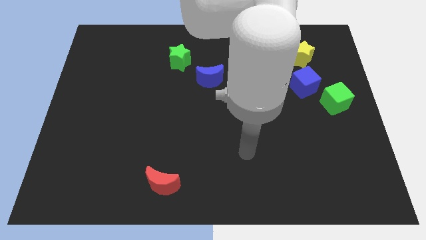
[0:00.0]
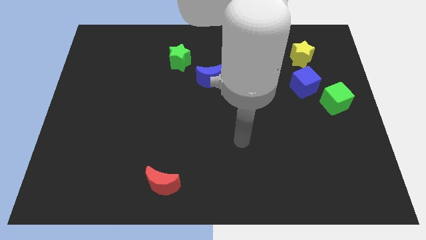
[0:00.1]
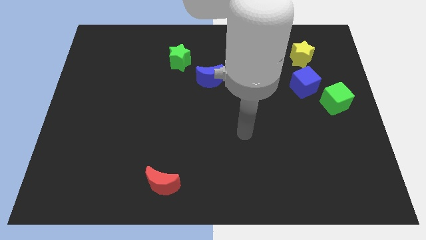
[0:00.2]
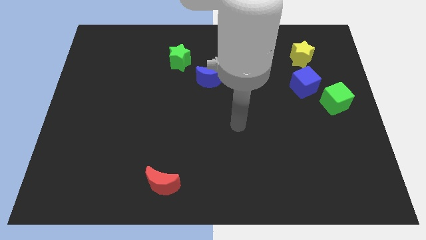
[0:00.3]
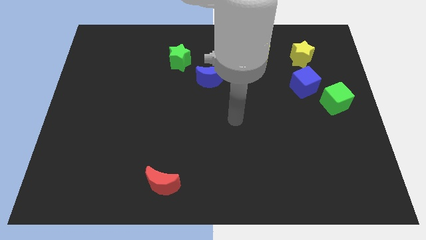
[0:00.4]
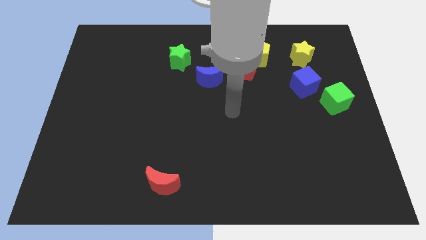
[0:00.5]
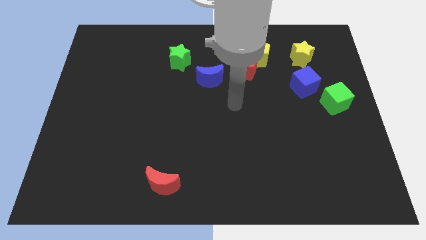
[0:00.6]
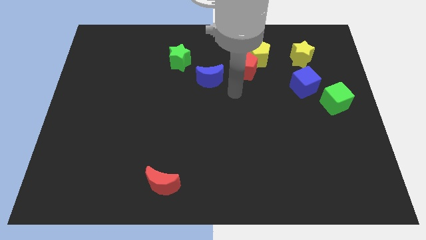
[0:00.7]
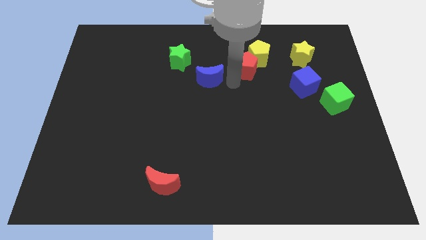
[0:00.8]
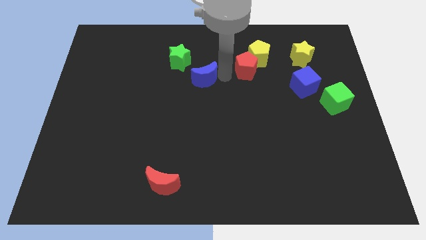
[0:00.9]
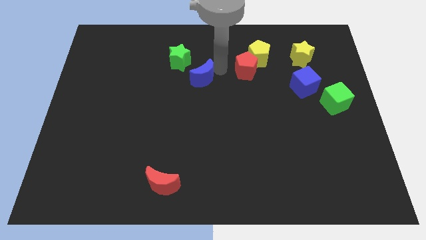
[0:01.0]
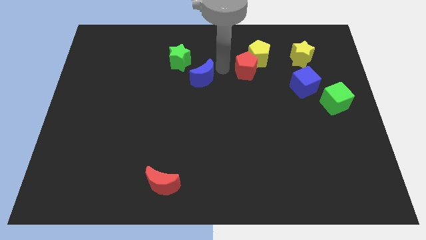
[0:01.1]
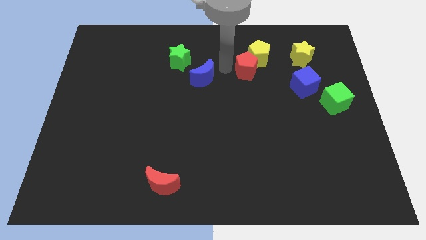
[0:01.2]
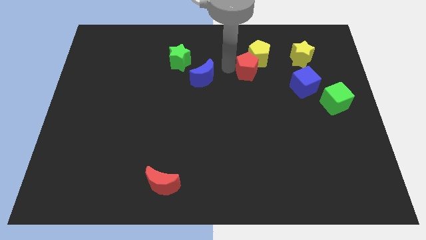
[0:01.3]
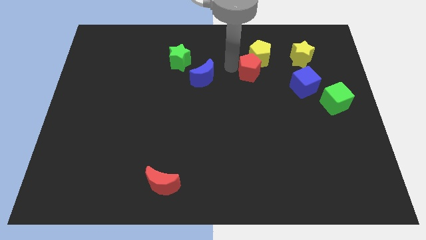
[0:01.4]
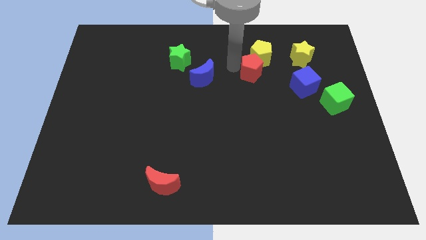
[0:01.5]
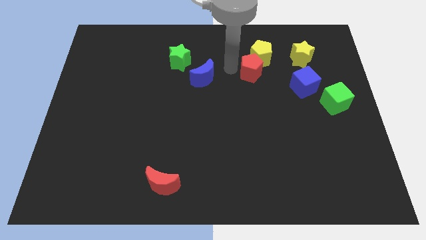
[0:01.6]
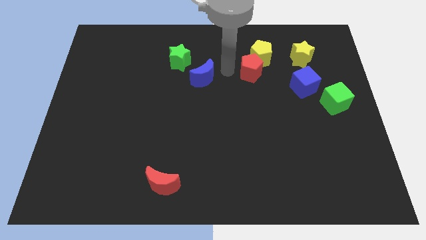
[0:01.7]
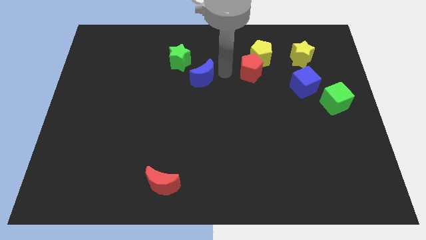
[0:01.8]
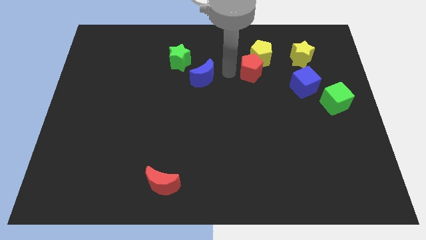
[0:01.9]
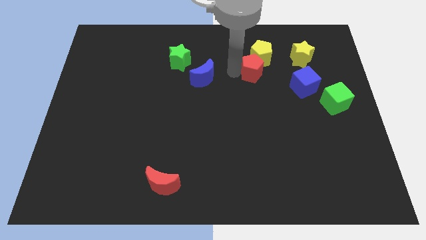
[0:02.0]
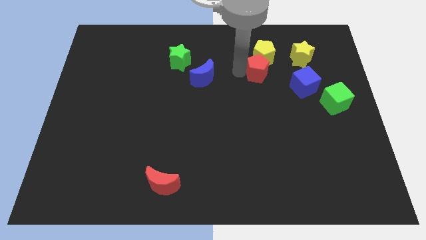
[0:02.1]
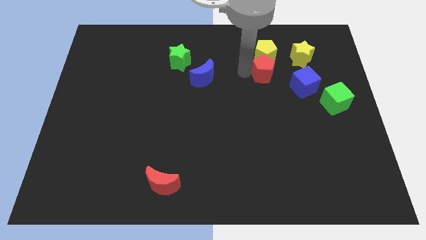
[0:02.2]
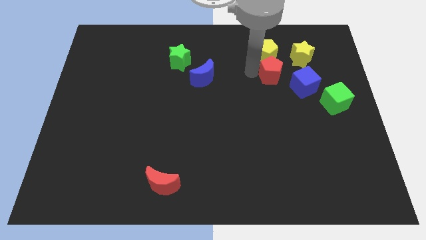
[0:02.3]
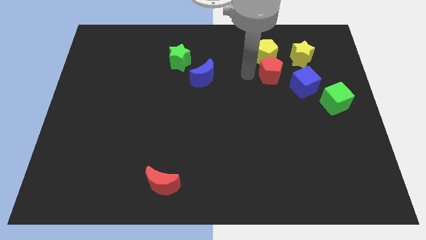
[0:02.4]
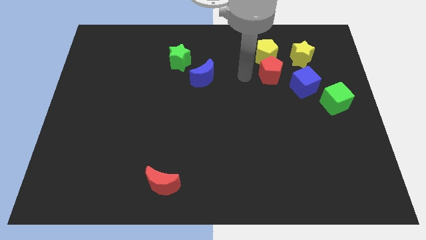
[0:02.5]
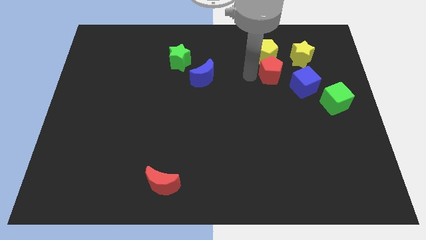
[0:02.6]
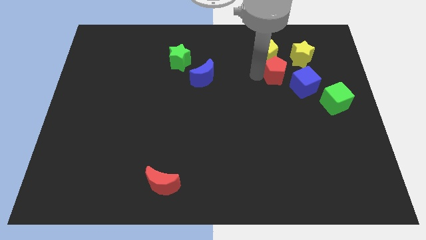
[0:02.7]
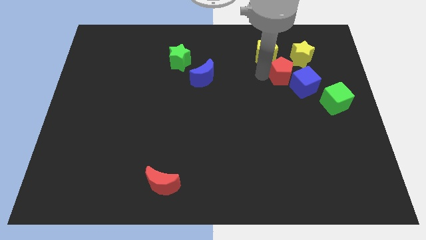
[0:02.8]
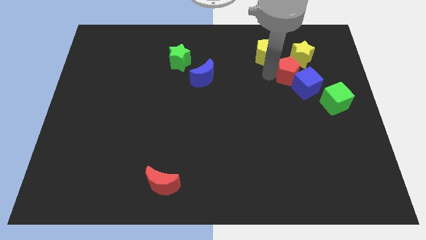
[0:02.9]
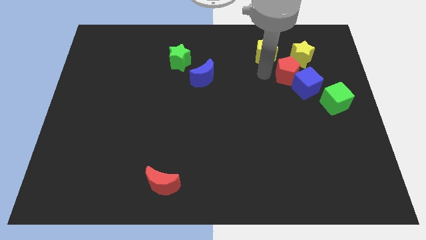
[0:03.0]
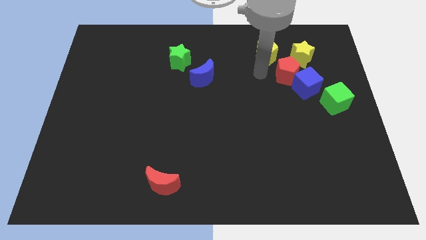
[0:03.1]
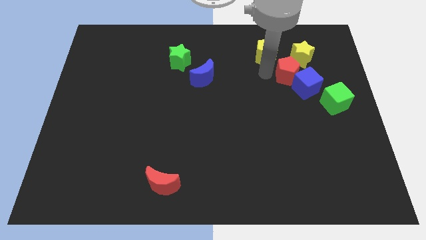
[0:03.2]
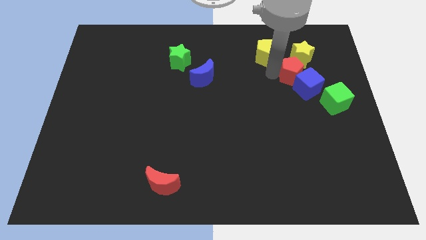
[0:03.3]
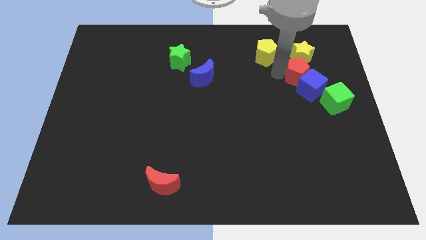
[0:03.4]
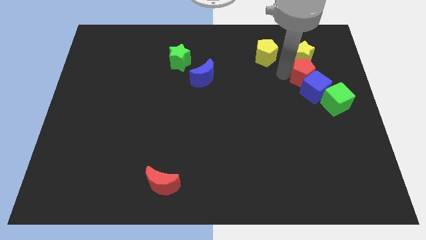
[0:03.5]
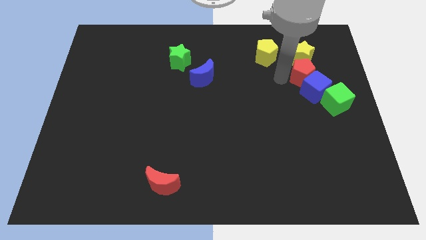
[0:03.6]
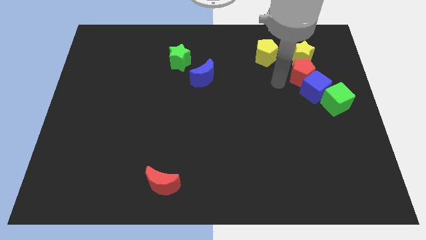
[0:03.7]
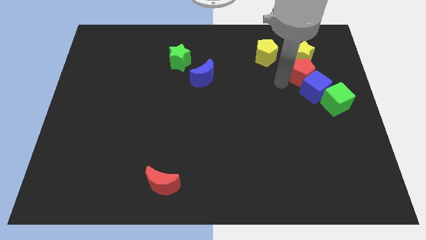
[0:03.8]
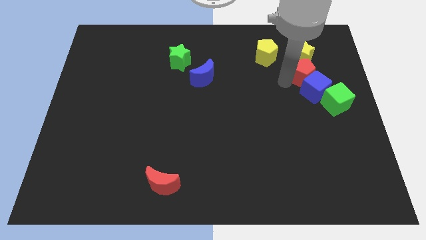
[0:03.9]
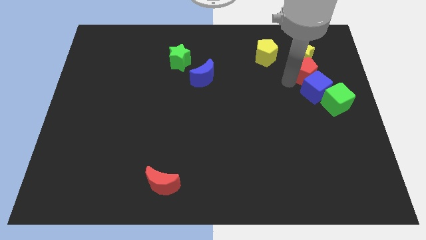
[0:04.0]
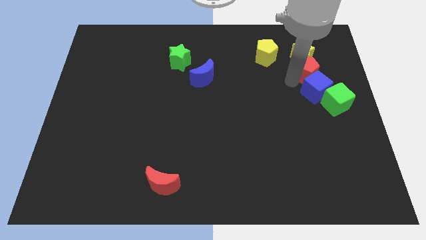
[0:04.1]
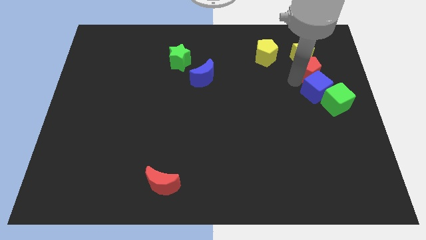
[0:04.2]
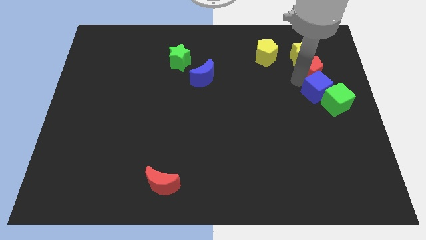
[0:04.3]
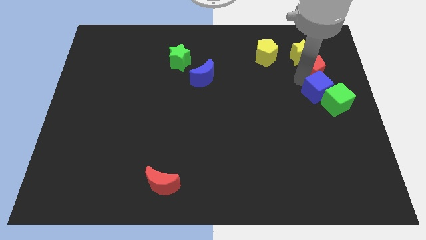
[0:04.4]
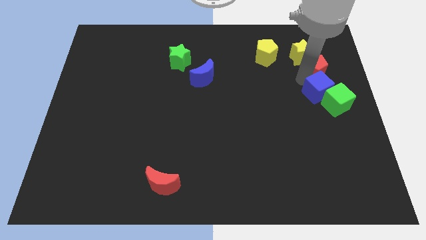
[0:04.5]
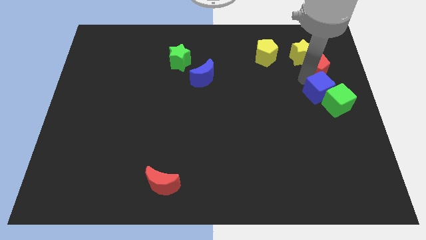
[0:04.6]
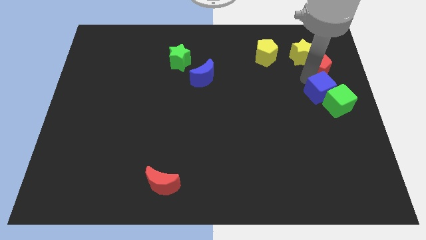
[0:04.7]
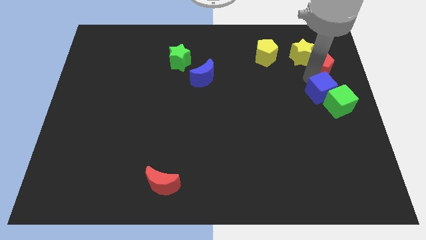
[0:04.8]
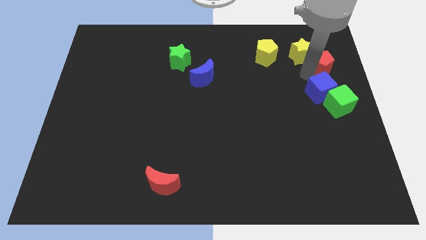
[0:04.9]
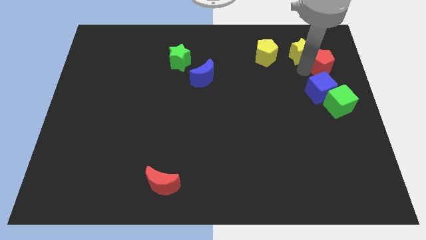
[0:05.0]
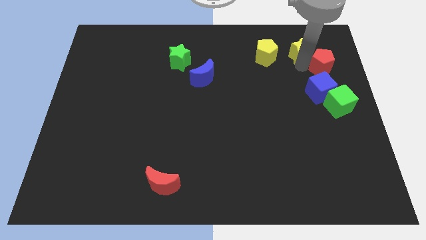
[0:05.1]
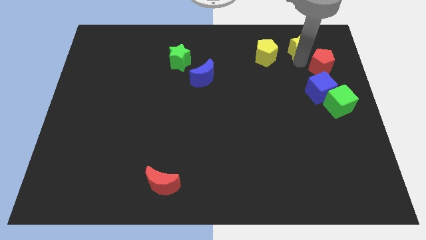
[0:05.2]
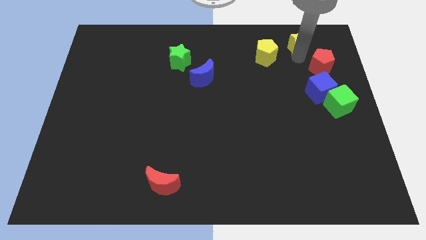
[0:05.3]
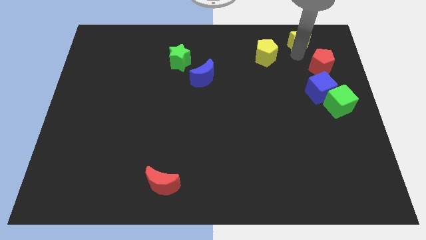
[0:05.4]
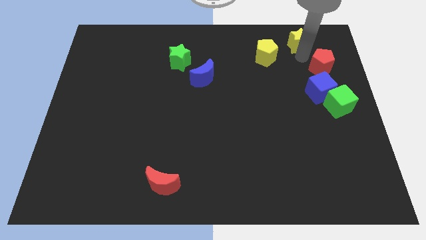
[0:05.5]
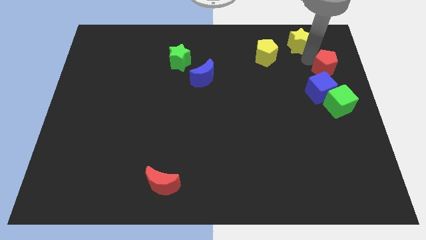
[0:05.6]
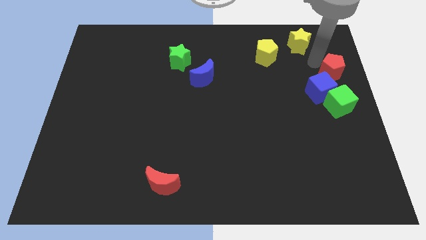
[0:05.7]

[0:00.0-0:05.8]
slide the red pentagon to the center right
